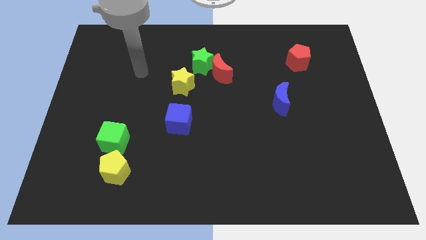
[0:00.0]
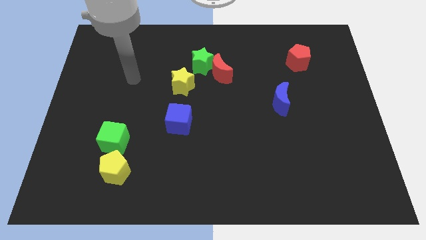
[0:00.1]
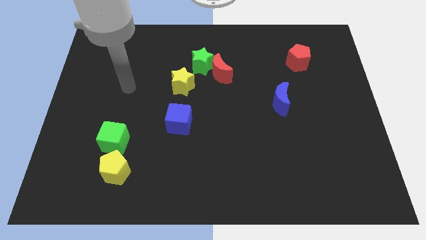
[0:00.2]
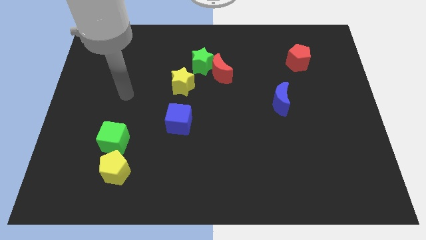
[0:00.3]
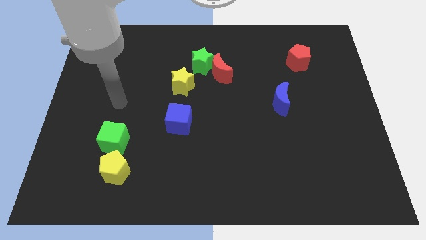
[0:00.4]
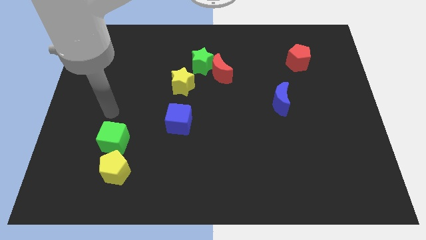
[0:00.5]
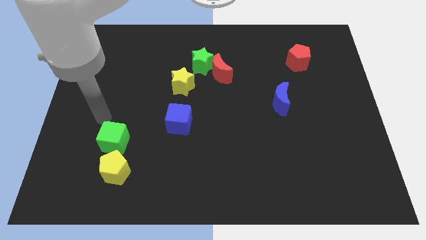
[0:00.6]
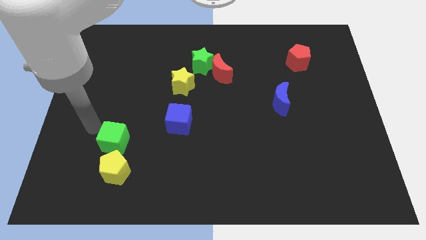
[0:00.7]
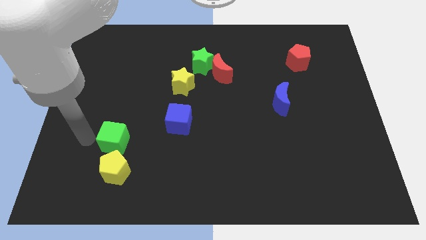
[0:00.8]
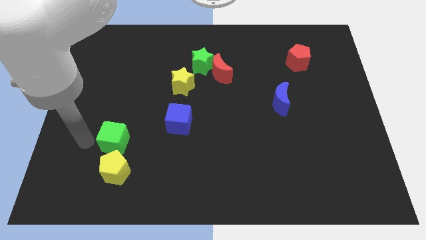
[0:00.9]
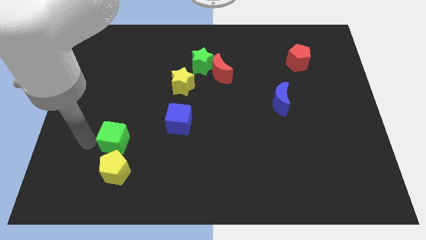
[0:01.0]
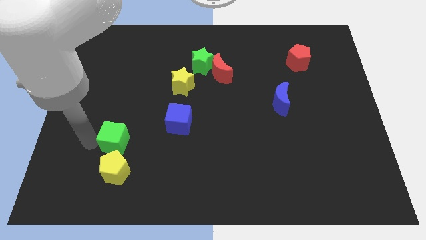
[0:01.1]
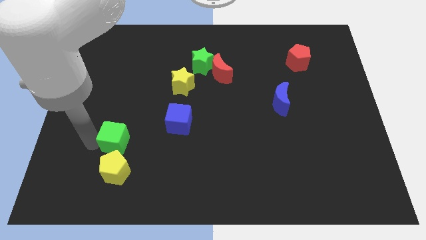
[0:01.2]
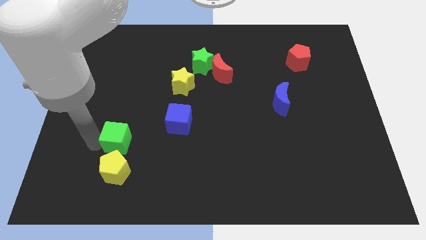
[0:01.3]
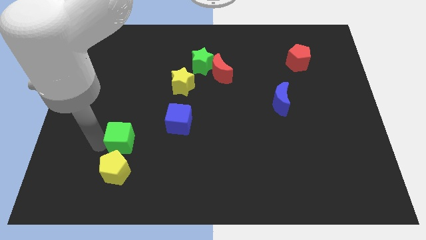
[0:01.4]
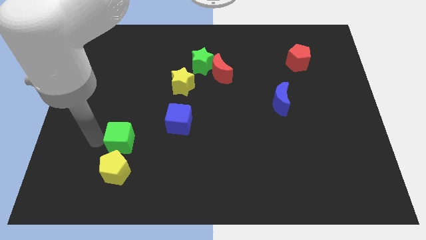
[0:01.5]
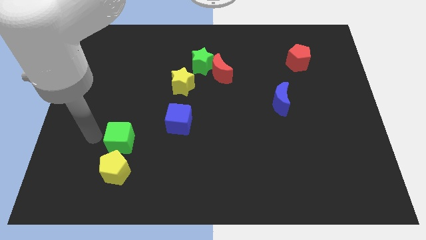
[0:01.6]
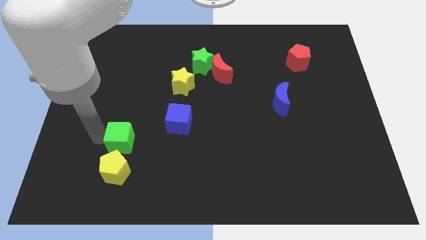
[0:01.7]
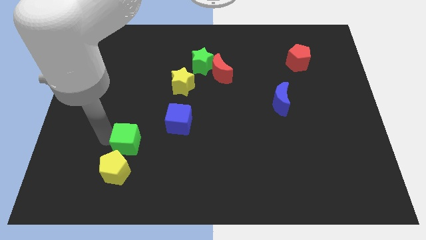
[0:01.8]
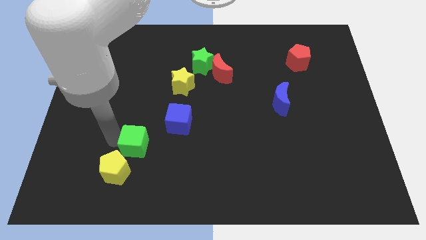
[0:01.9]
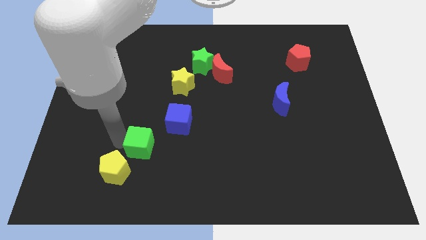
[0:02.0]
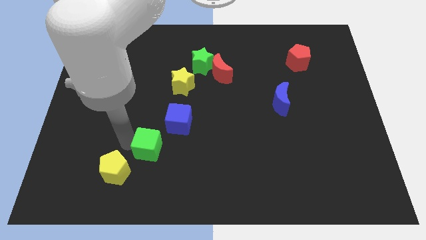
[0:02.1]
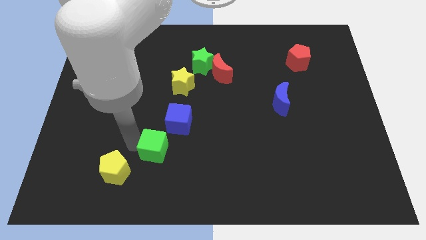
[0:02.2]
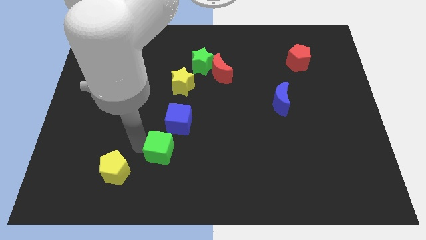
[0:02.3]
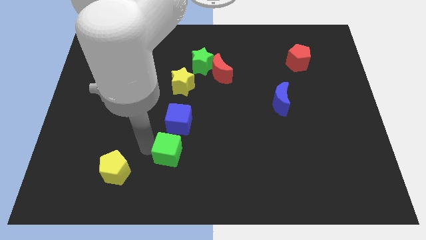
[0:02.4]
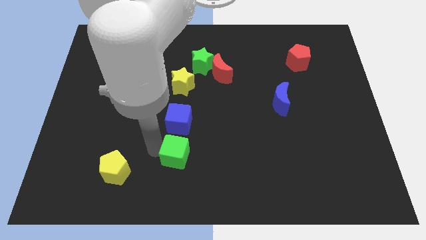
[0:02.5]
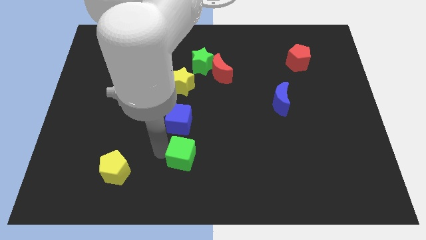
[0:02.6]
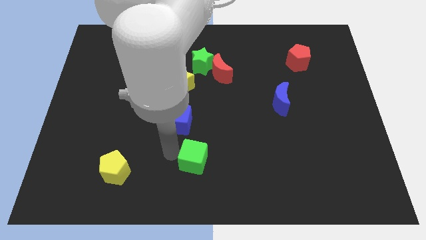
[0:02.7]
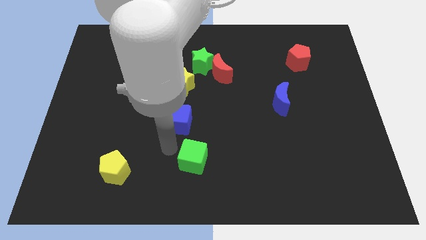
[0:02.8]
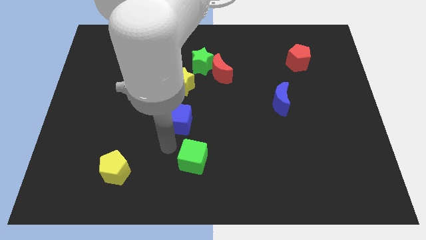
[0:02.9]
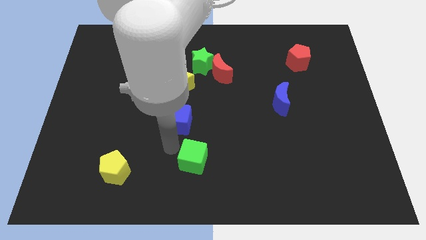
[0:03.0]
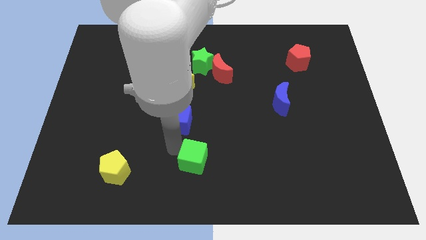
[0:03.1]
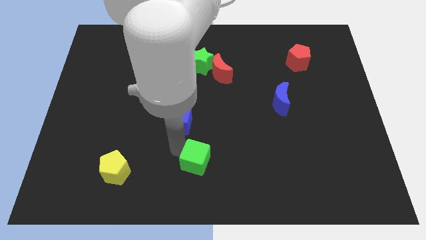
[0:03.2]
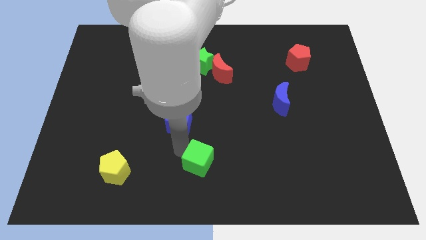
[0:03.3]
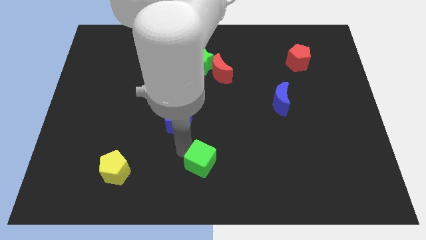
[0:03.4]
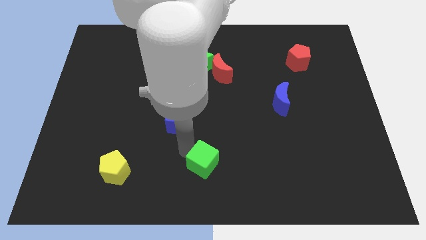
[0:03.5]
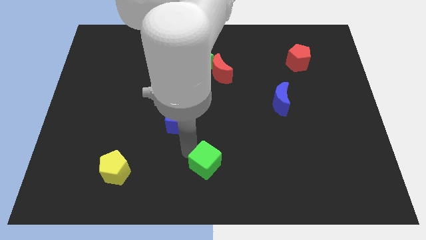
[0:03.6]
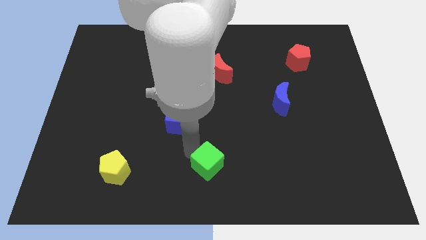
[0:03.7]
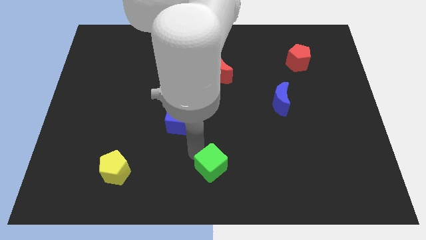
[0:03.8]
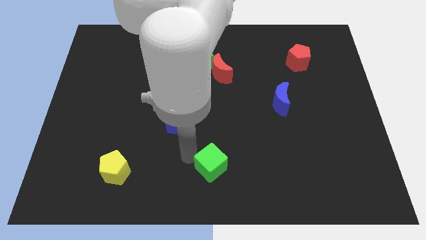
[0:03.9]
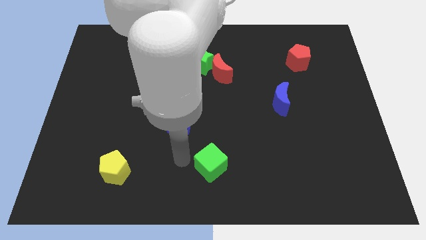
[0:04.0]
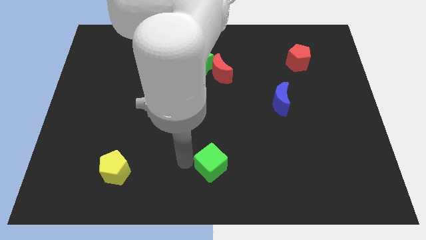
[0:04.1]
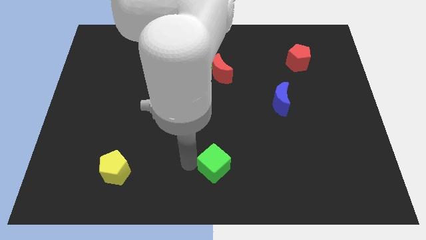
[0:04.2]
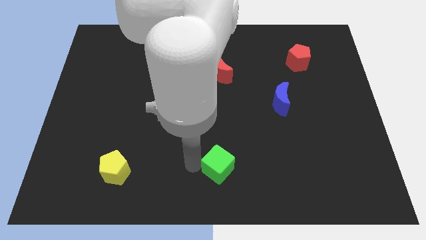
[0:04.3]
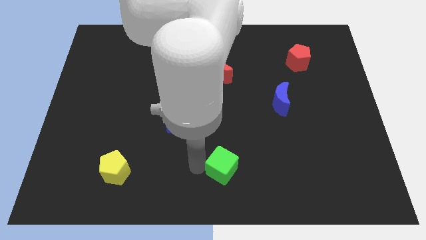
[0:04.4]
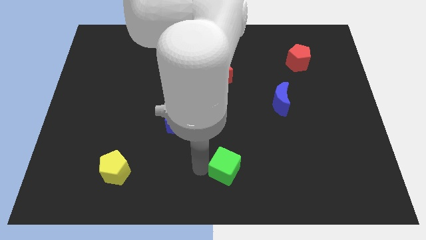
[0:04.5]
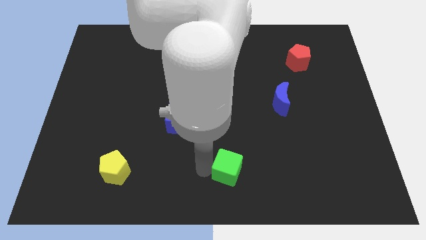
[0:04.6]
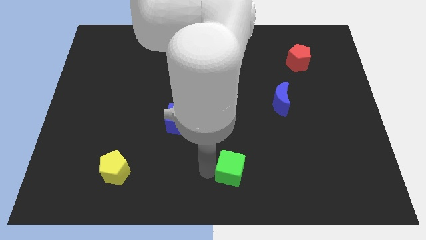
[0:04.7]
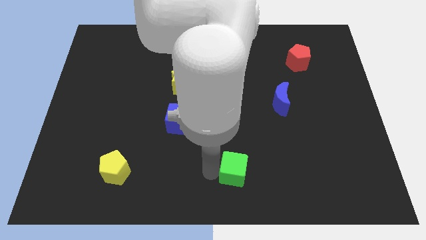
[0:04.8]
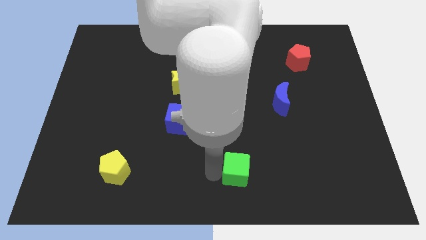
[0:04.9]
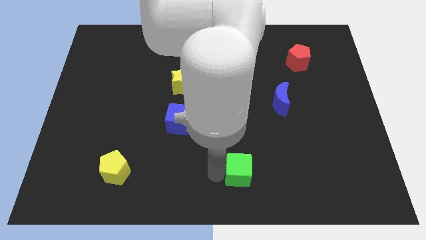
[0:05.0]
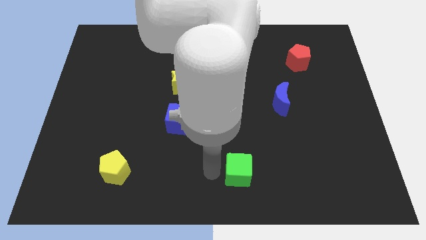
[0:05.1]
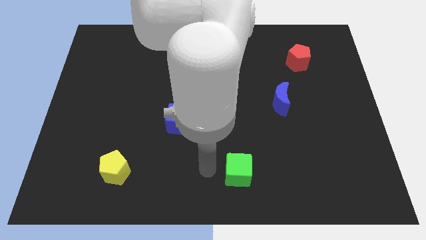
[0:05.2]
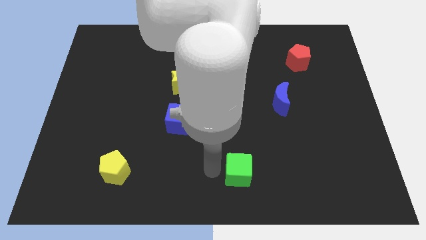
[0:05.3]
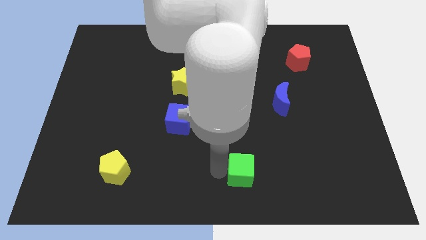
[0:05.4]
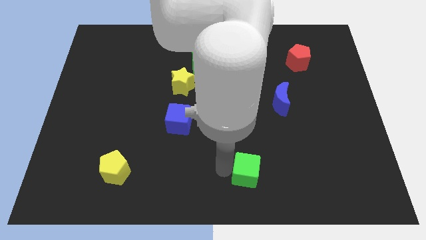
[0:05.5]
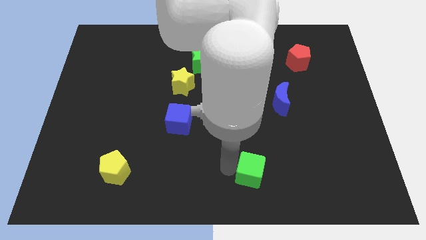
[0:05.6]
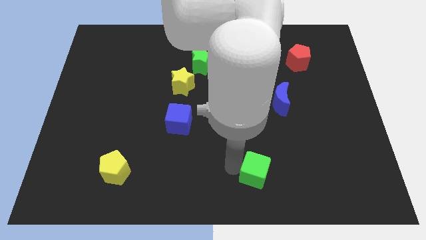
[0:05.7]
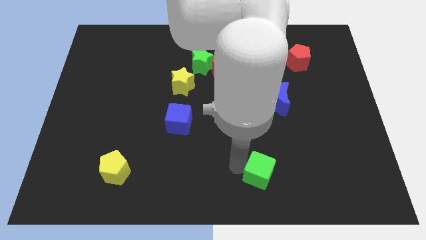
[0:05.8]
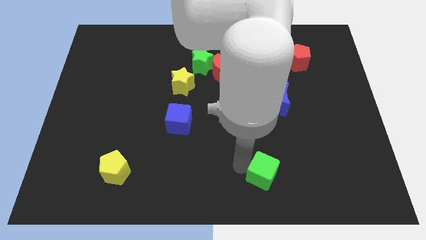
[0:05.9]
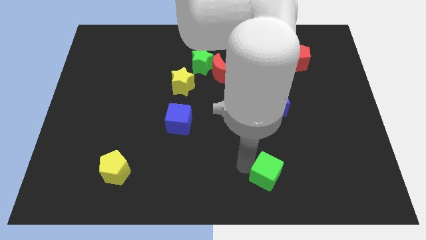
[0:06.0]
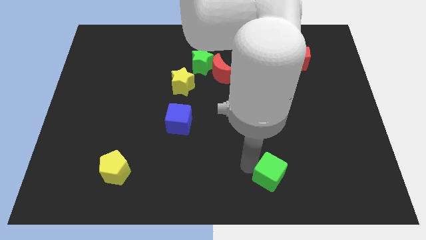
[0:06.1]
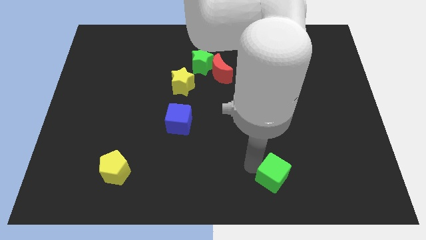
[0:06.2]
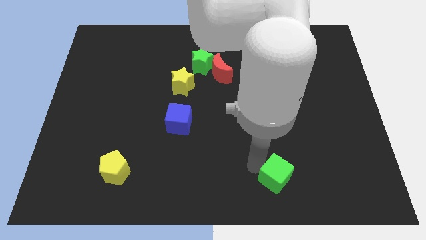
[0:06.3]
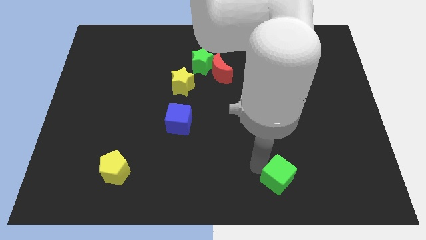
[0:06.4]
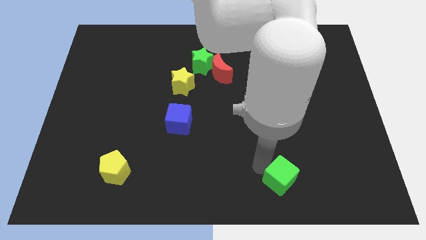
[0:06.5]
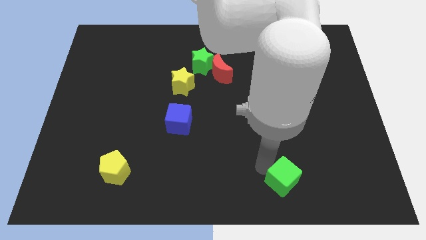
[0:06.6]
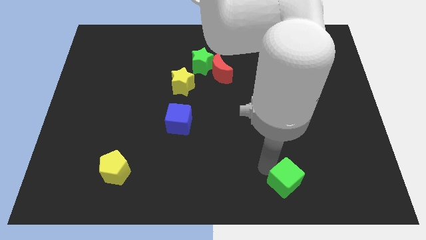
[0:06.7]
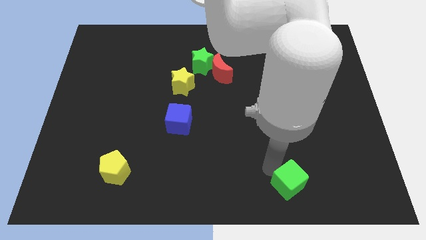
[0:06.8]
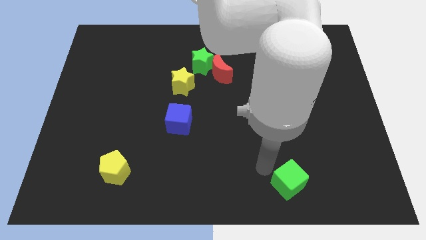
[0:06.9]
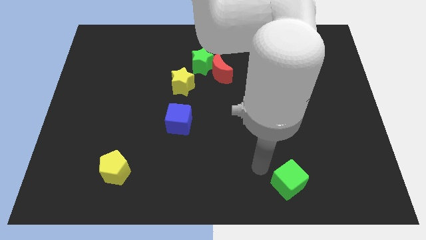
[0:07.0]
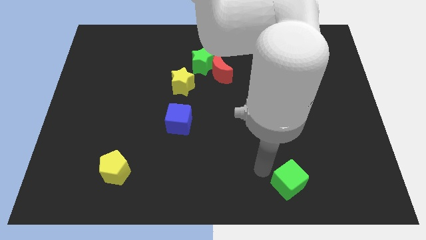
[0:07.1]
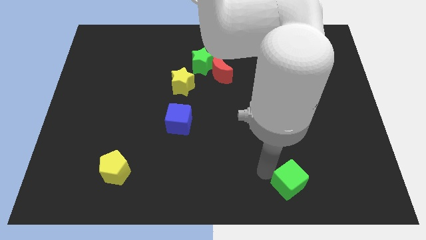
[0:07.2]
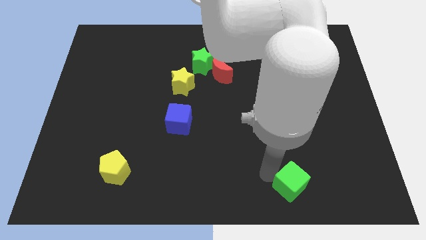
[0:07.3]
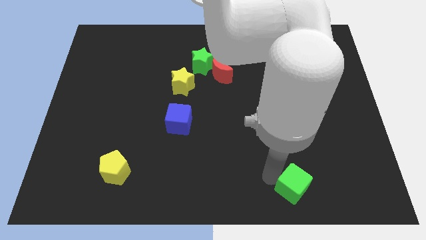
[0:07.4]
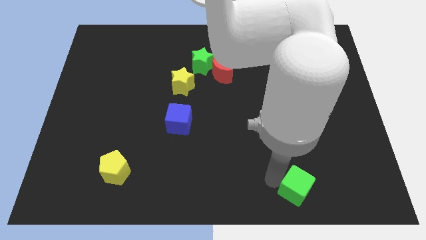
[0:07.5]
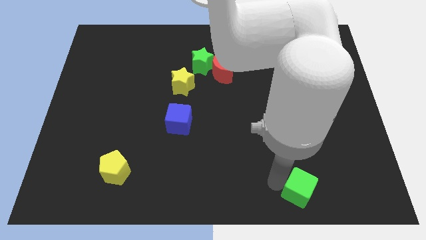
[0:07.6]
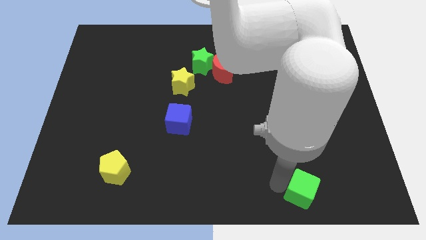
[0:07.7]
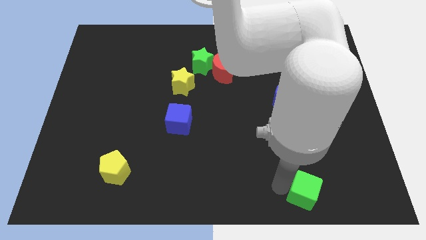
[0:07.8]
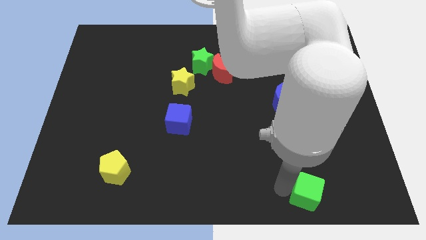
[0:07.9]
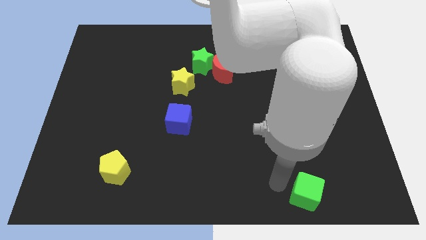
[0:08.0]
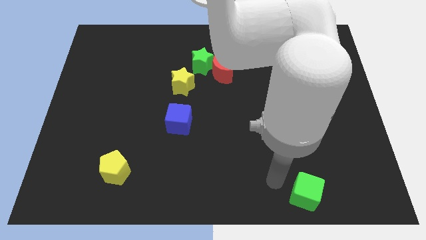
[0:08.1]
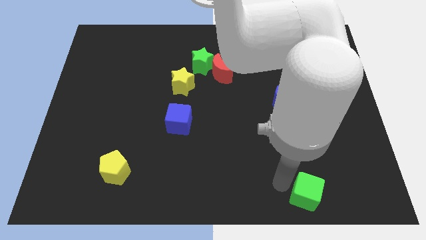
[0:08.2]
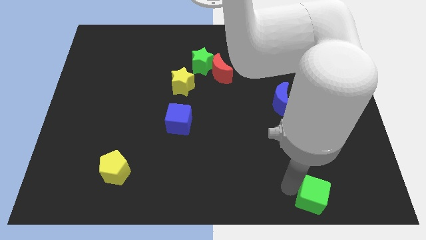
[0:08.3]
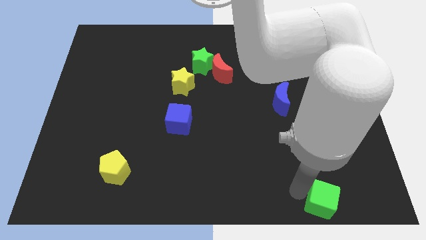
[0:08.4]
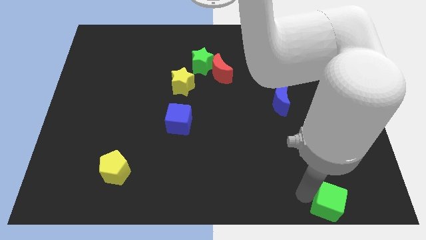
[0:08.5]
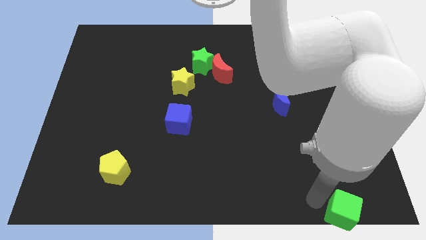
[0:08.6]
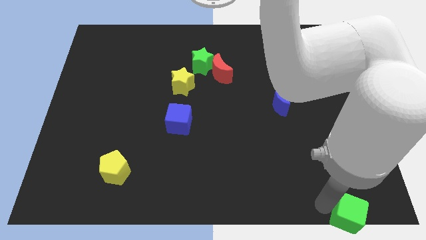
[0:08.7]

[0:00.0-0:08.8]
put the green cube to the bottom right corner
